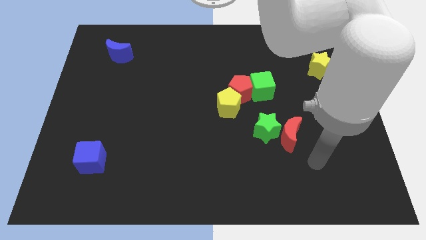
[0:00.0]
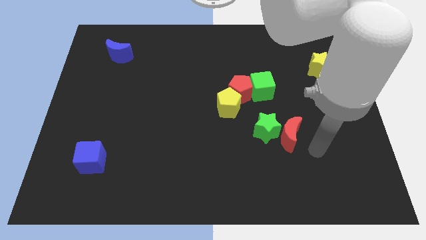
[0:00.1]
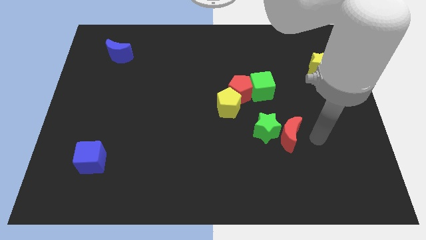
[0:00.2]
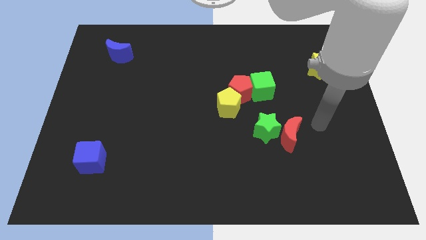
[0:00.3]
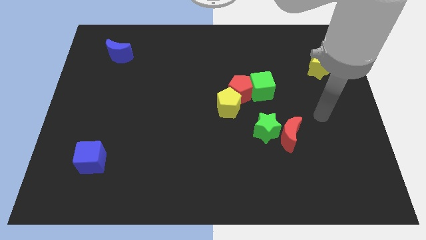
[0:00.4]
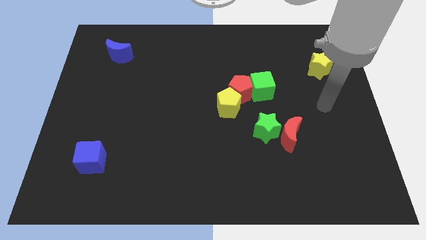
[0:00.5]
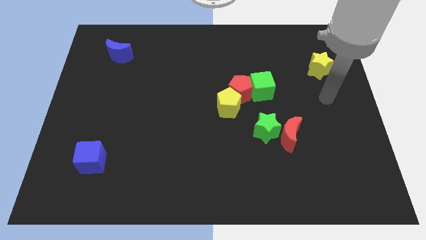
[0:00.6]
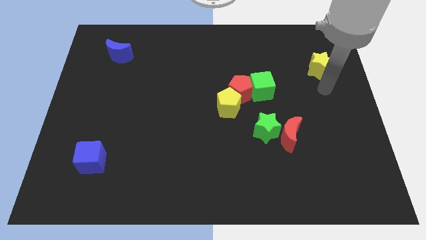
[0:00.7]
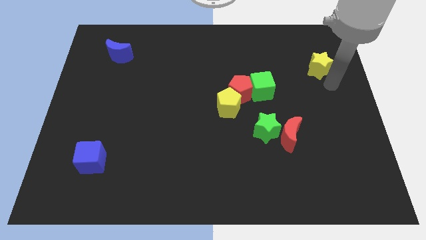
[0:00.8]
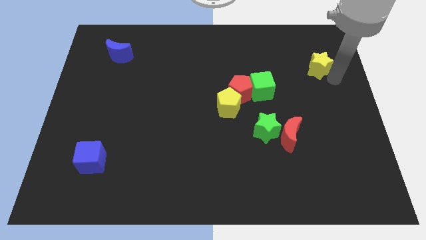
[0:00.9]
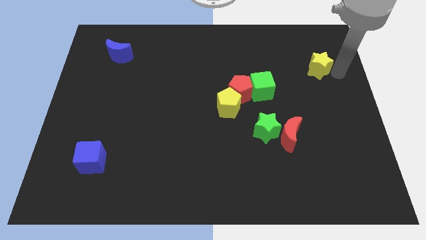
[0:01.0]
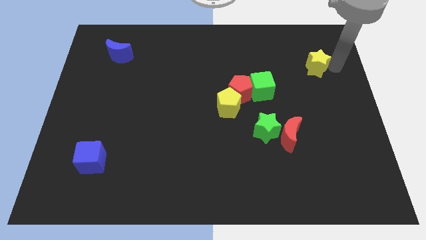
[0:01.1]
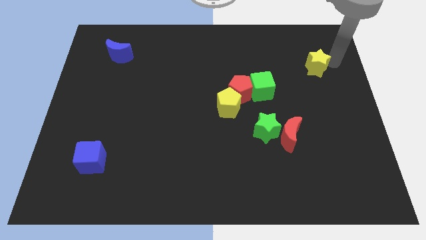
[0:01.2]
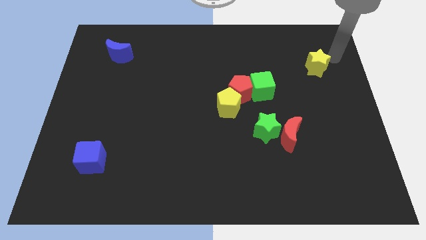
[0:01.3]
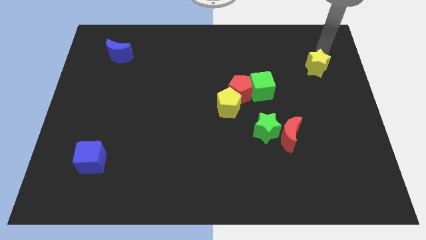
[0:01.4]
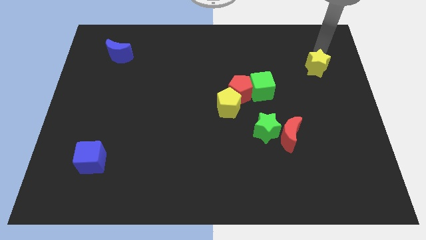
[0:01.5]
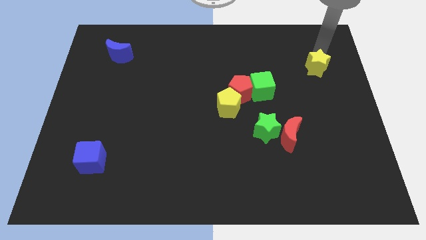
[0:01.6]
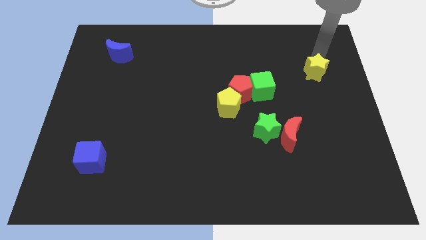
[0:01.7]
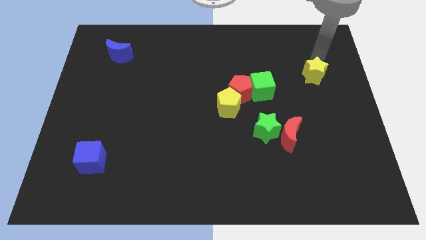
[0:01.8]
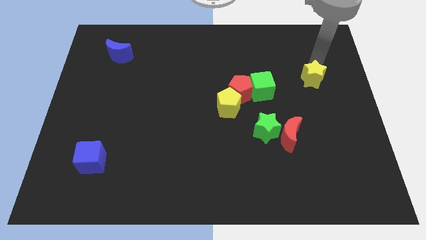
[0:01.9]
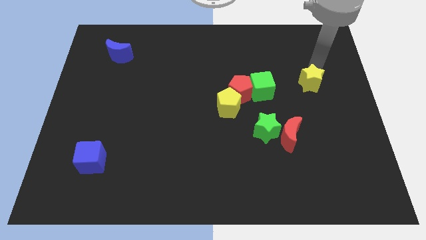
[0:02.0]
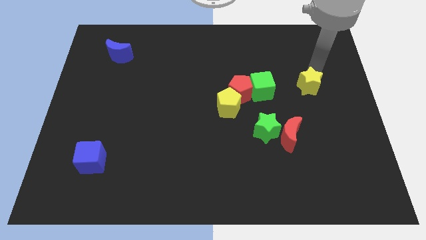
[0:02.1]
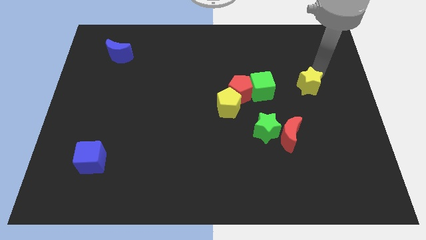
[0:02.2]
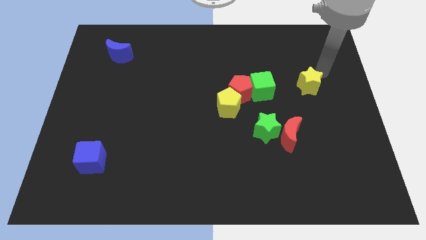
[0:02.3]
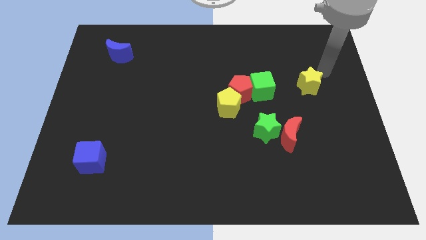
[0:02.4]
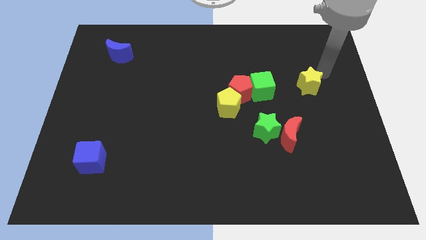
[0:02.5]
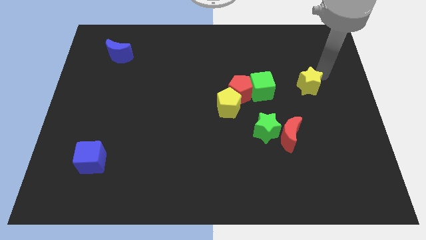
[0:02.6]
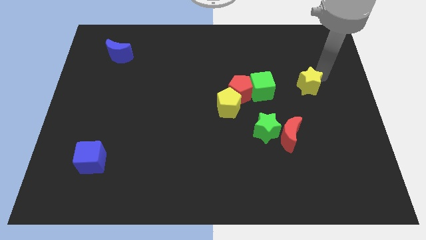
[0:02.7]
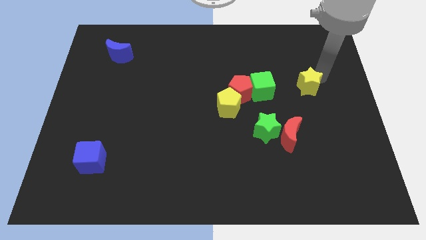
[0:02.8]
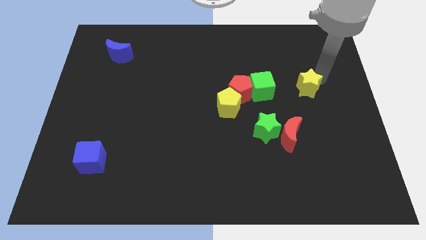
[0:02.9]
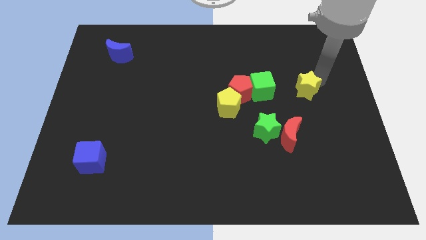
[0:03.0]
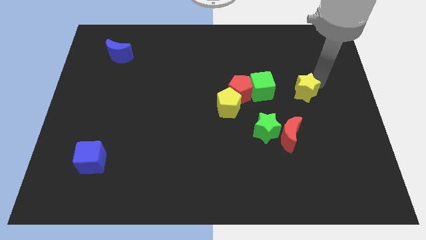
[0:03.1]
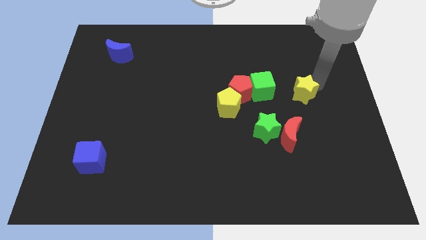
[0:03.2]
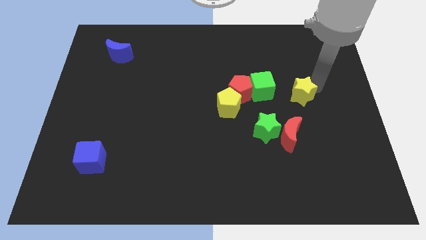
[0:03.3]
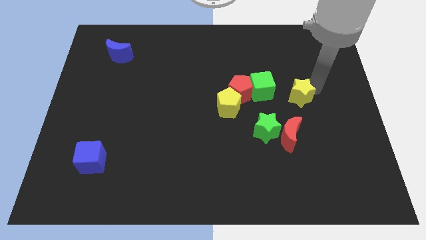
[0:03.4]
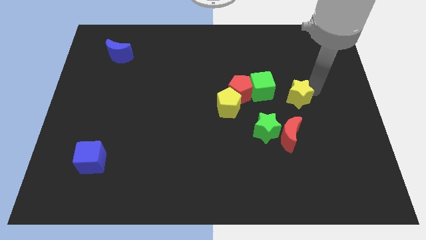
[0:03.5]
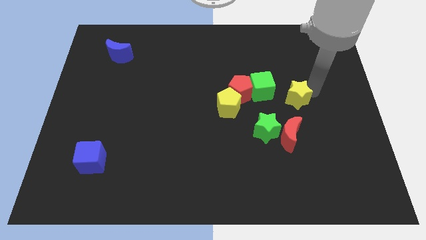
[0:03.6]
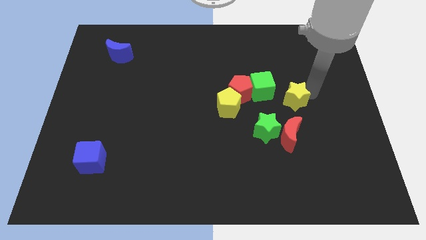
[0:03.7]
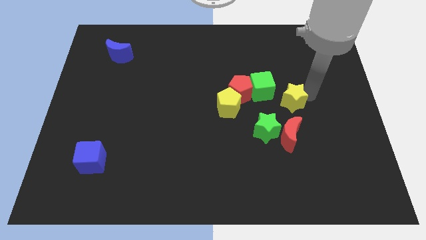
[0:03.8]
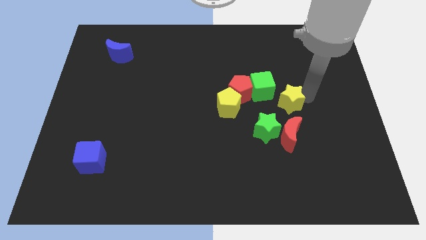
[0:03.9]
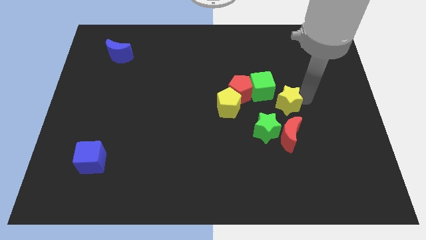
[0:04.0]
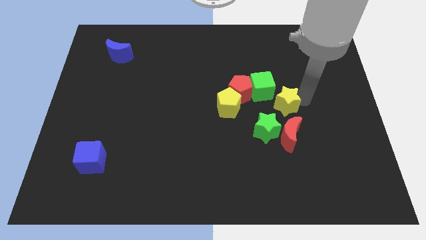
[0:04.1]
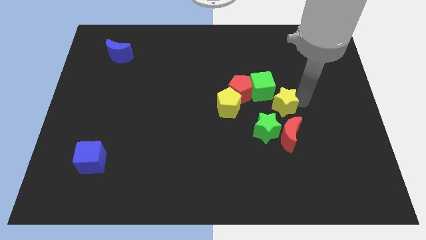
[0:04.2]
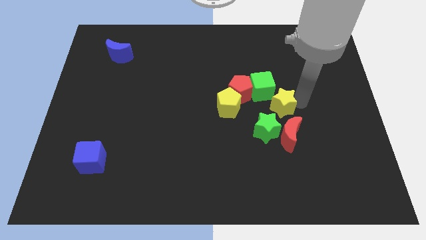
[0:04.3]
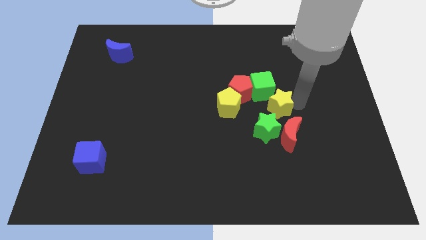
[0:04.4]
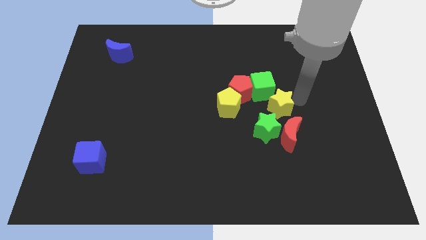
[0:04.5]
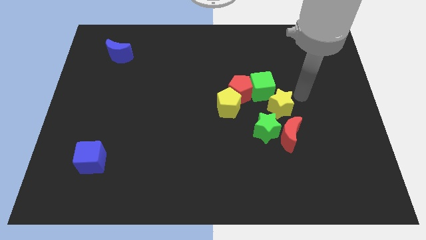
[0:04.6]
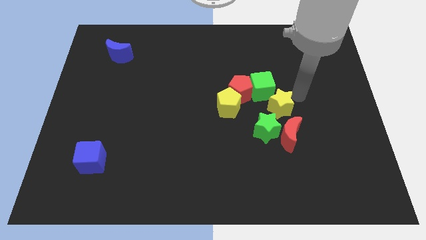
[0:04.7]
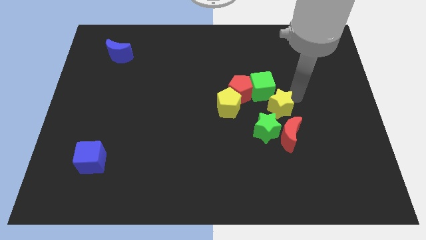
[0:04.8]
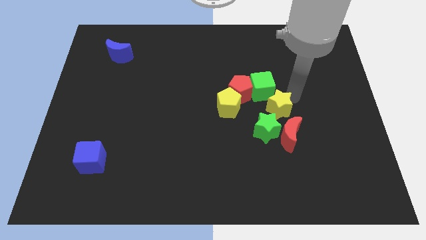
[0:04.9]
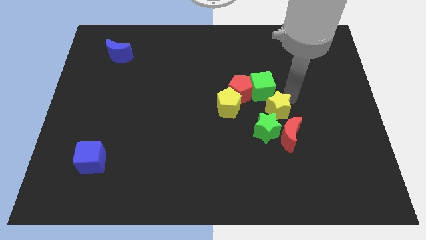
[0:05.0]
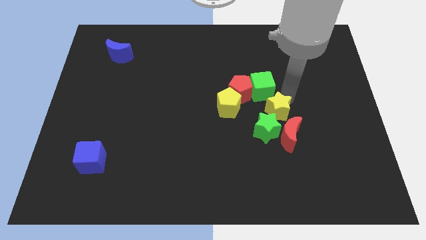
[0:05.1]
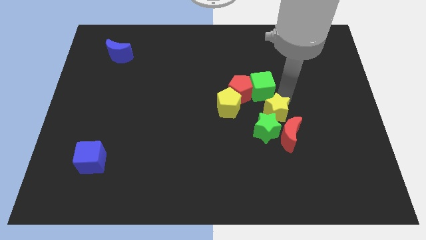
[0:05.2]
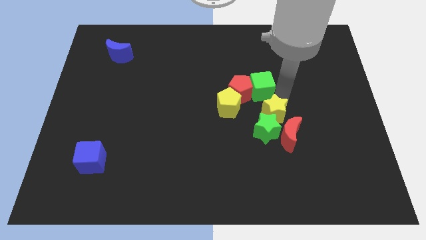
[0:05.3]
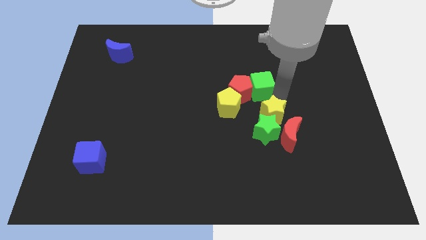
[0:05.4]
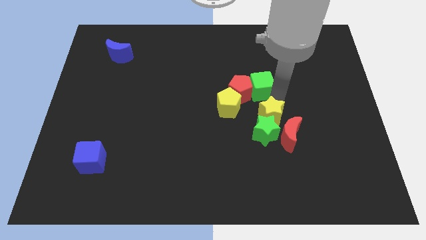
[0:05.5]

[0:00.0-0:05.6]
move the yellow star downwards and left diagonally

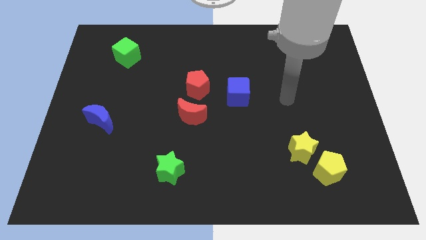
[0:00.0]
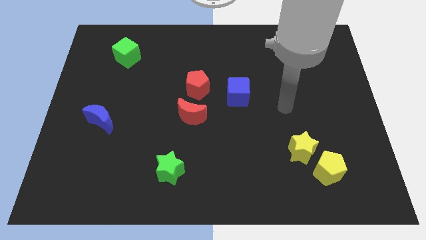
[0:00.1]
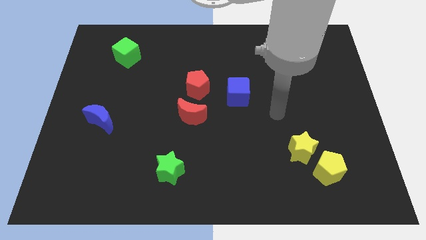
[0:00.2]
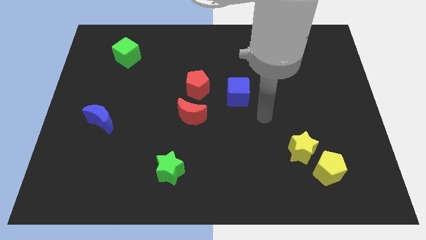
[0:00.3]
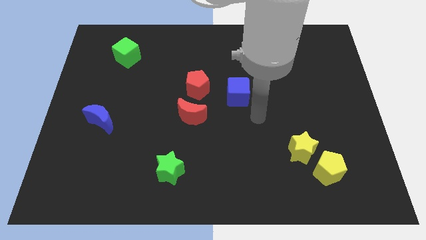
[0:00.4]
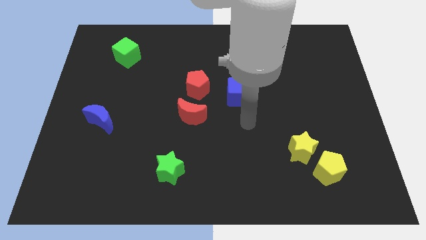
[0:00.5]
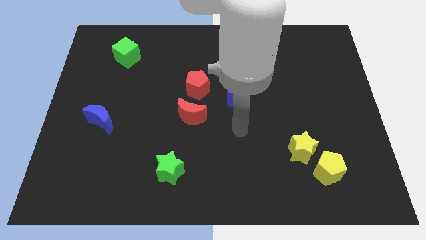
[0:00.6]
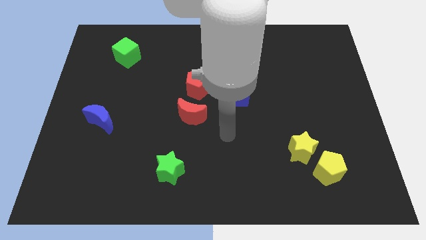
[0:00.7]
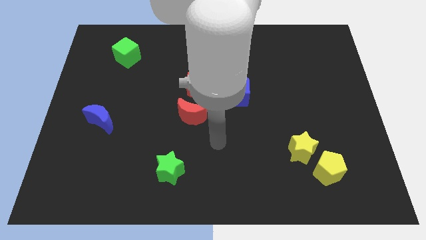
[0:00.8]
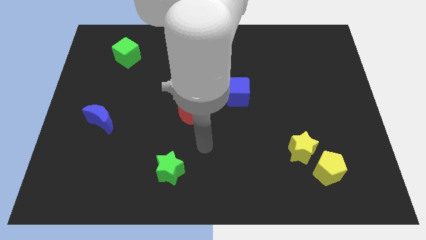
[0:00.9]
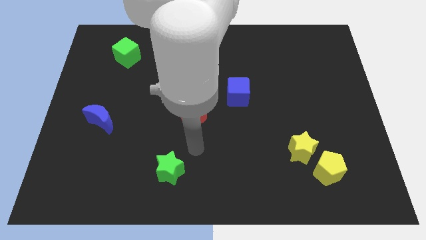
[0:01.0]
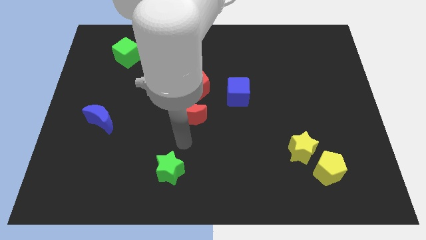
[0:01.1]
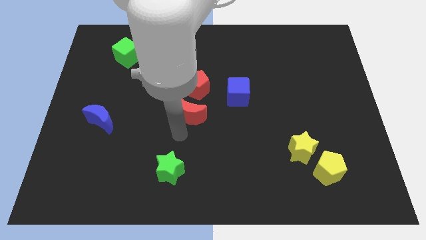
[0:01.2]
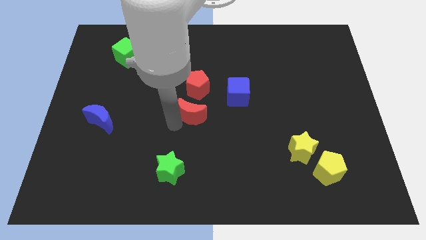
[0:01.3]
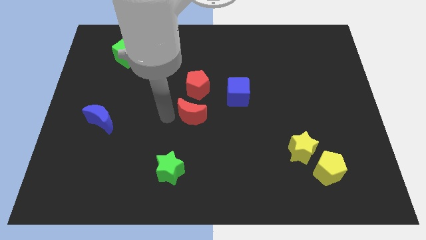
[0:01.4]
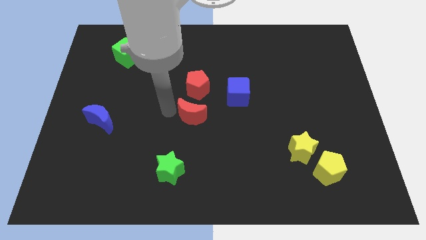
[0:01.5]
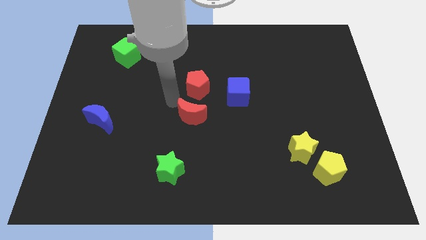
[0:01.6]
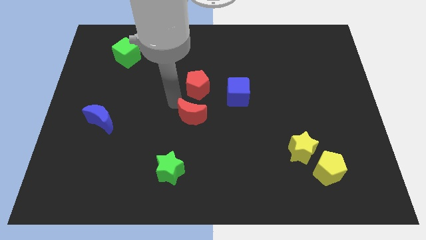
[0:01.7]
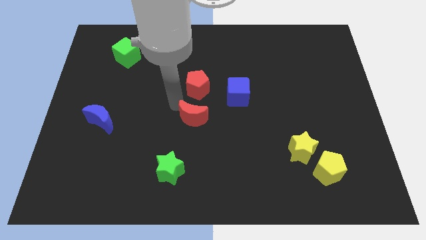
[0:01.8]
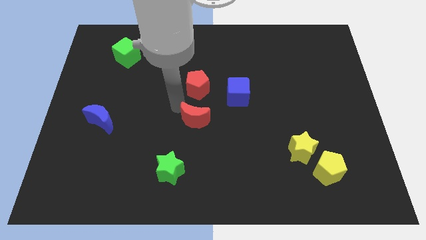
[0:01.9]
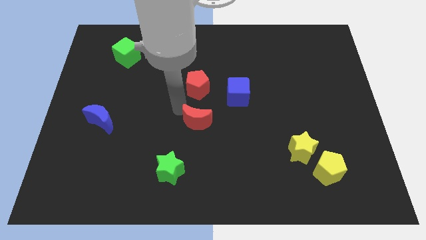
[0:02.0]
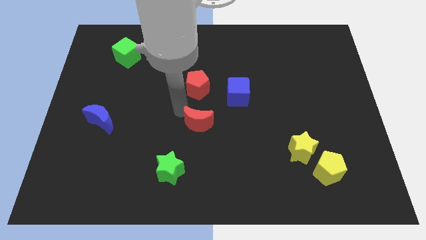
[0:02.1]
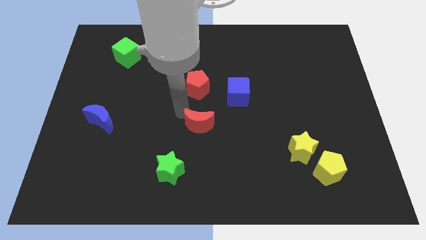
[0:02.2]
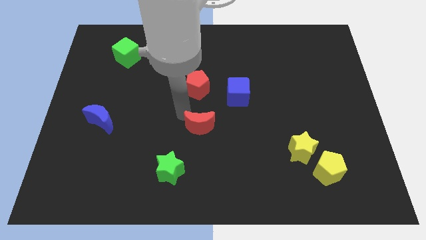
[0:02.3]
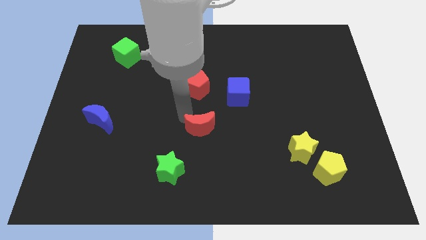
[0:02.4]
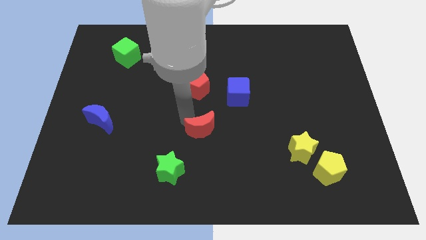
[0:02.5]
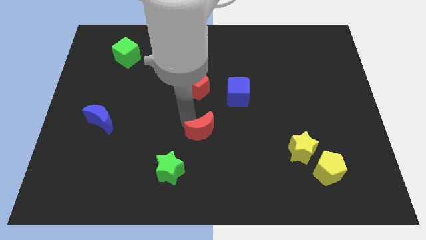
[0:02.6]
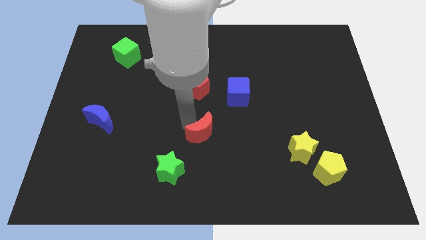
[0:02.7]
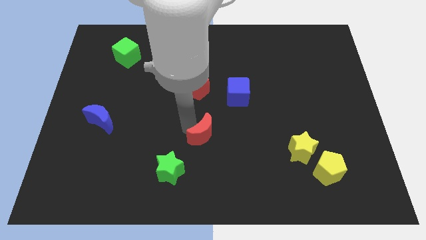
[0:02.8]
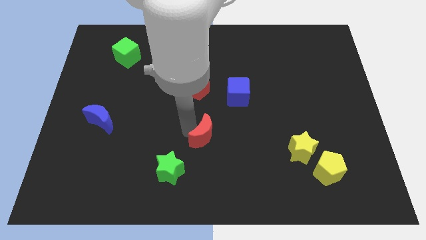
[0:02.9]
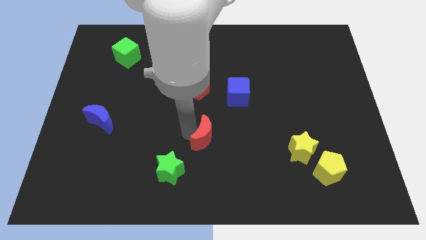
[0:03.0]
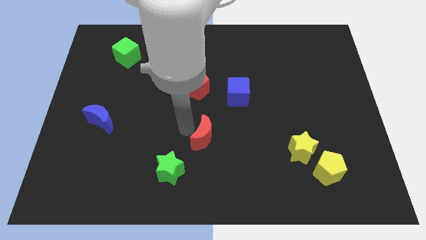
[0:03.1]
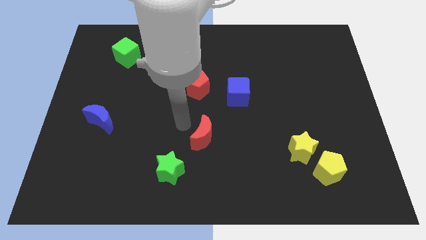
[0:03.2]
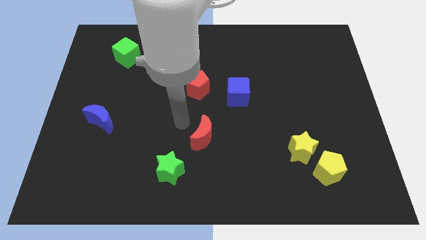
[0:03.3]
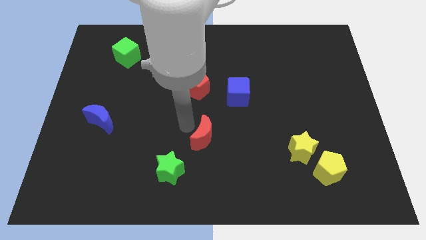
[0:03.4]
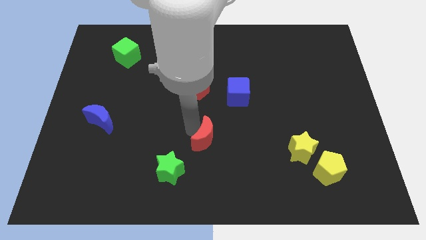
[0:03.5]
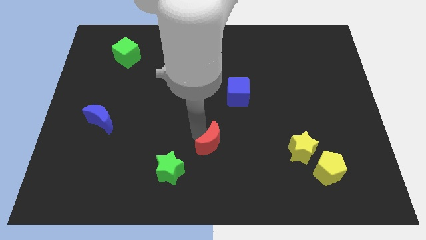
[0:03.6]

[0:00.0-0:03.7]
slide the red moon down and right a little bit
